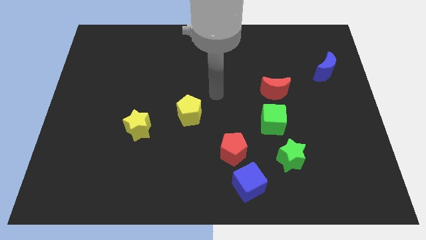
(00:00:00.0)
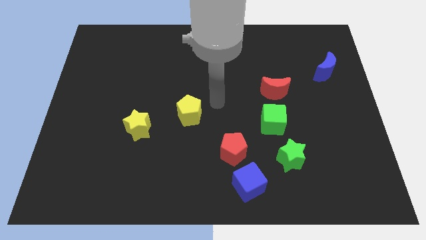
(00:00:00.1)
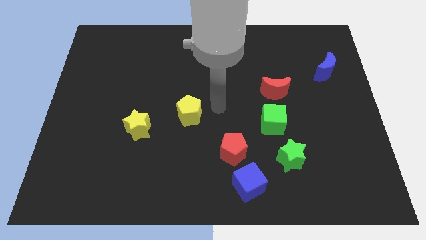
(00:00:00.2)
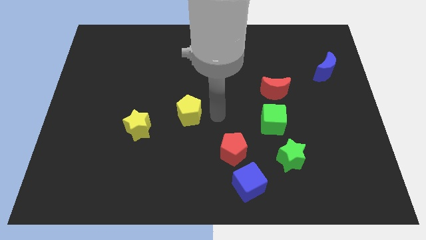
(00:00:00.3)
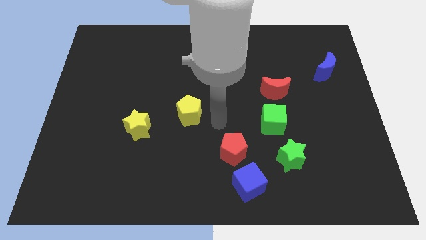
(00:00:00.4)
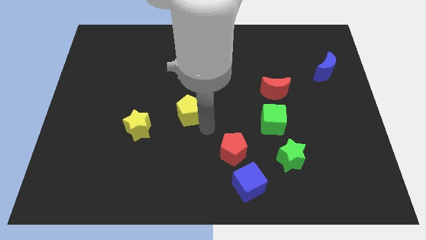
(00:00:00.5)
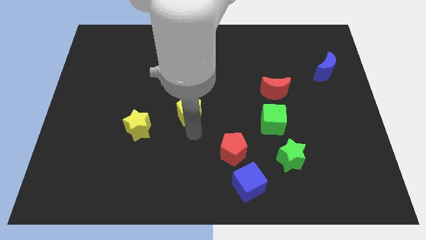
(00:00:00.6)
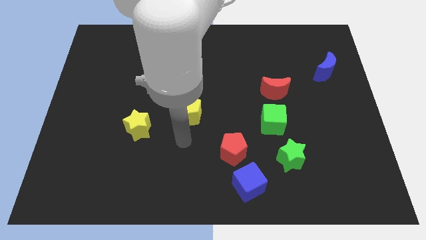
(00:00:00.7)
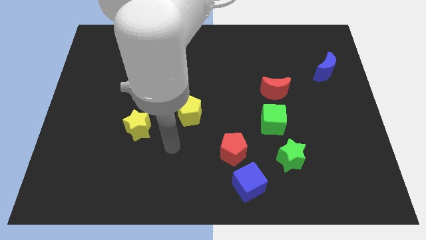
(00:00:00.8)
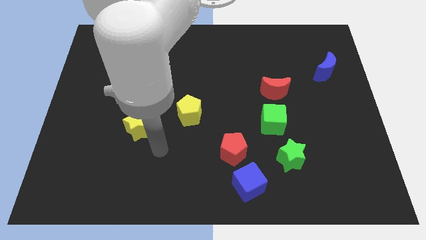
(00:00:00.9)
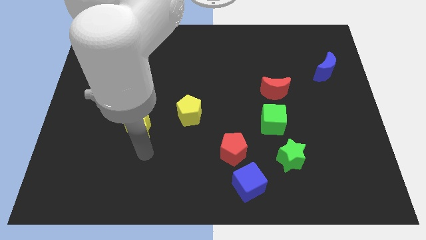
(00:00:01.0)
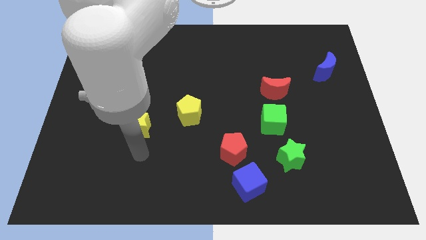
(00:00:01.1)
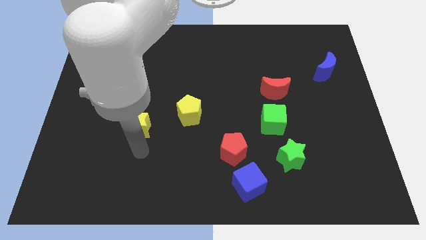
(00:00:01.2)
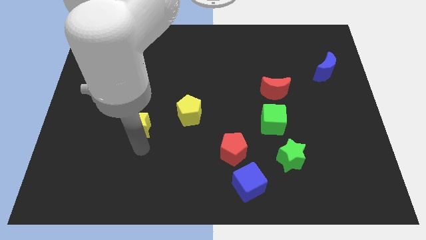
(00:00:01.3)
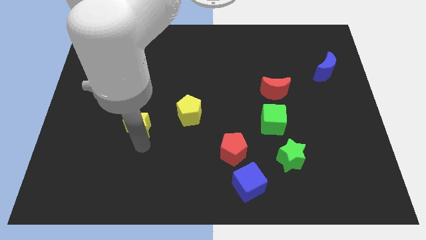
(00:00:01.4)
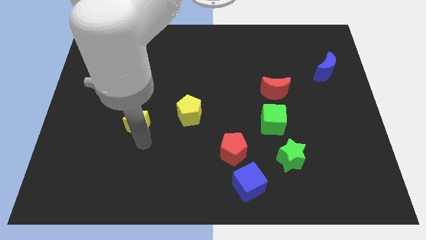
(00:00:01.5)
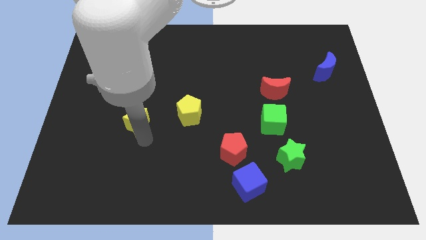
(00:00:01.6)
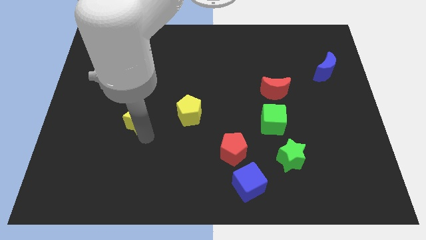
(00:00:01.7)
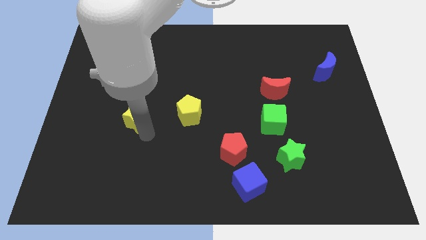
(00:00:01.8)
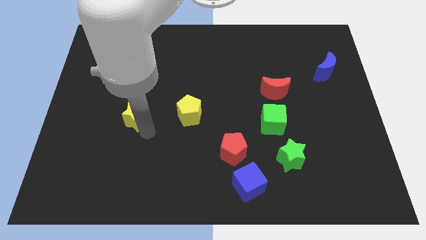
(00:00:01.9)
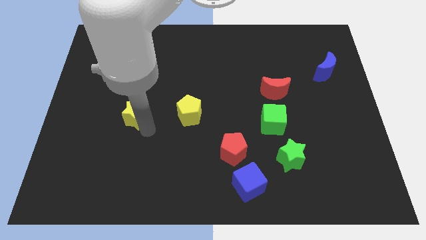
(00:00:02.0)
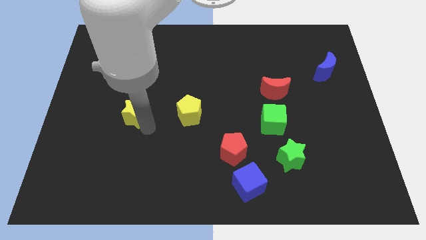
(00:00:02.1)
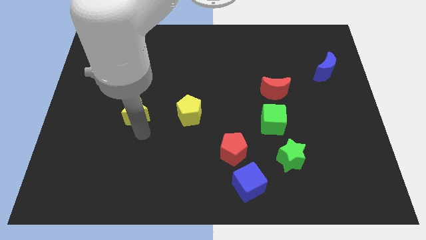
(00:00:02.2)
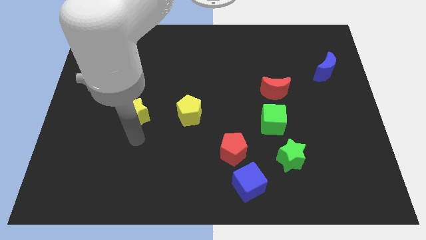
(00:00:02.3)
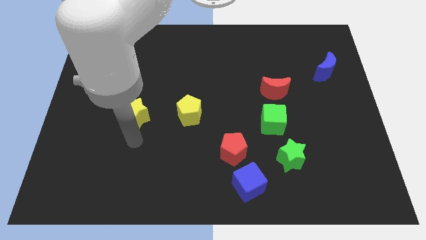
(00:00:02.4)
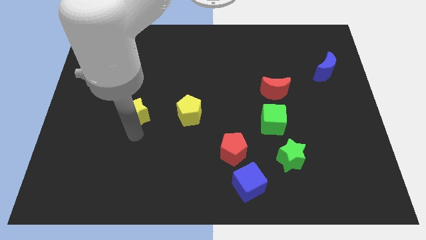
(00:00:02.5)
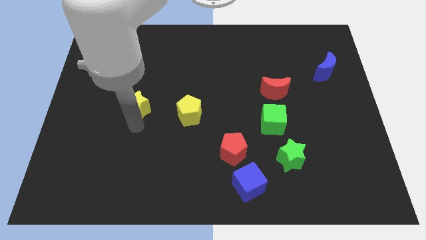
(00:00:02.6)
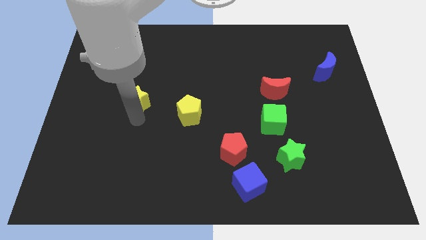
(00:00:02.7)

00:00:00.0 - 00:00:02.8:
slide the yellow star a little bit upwards

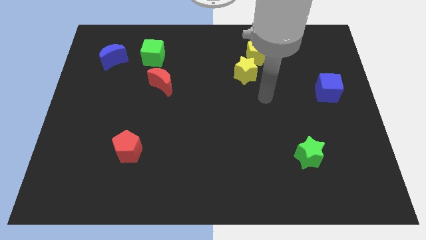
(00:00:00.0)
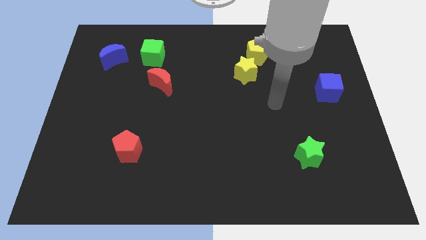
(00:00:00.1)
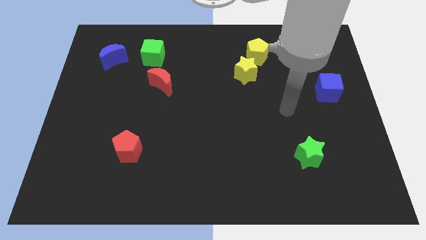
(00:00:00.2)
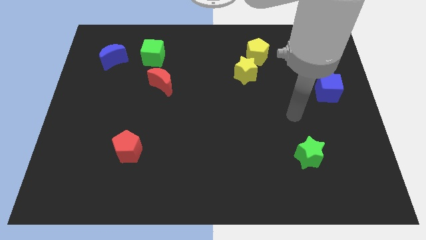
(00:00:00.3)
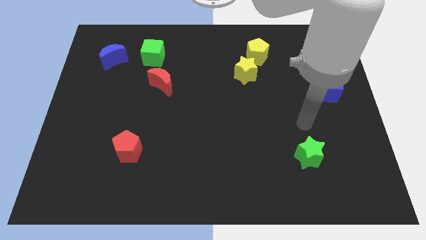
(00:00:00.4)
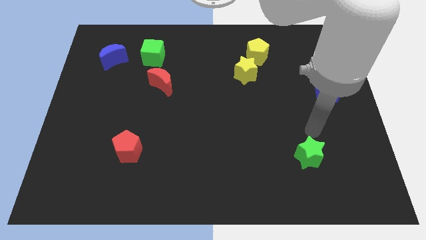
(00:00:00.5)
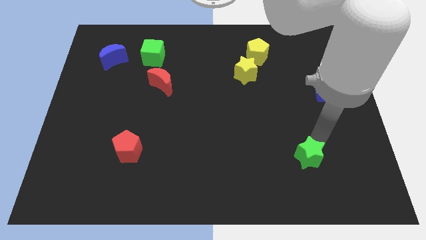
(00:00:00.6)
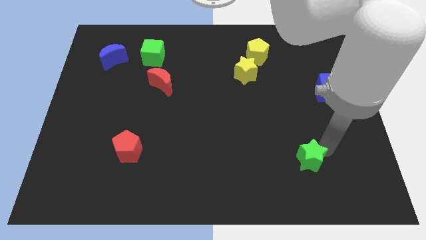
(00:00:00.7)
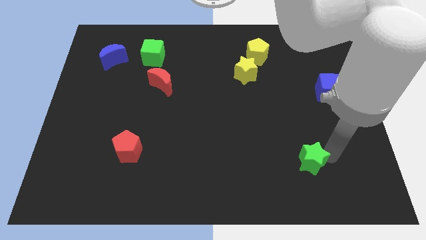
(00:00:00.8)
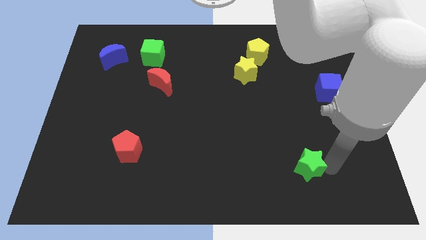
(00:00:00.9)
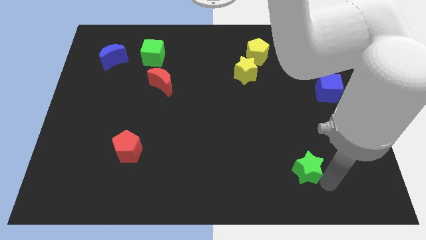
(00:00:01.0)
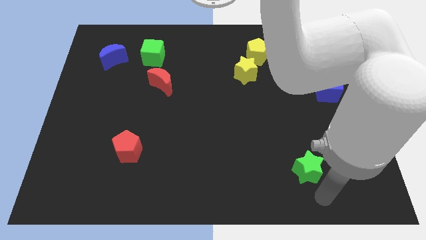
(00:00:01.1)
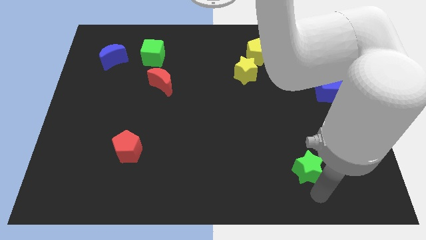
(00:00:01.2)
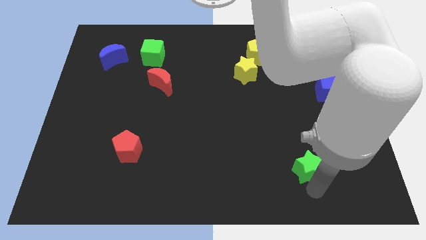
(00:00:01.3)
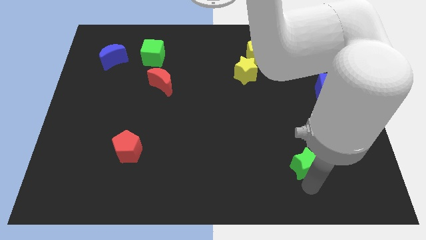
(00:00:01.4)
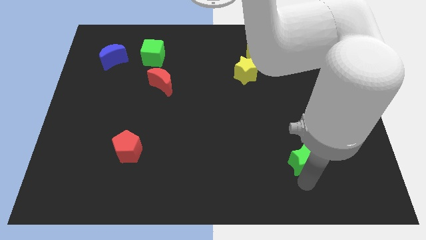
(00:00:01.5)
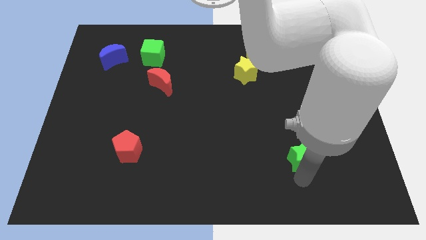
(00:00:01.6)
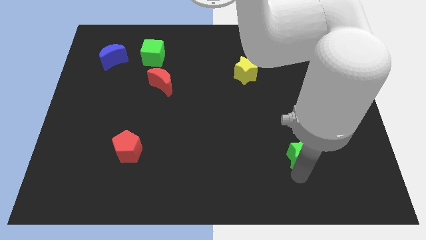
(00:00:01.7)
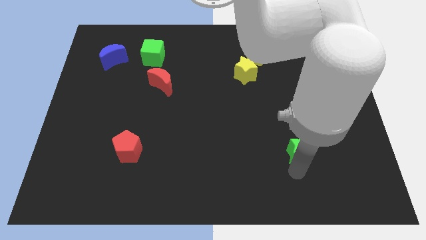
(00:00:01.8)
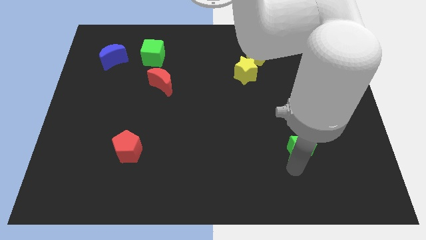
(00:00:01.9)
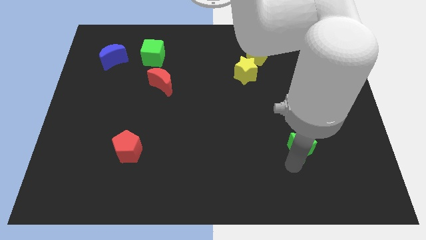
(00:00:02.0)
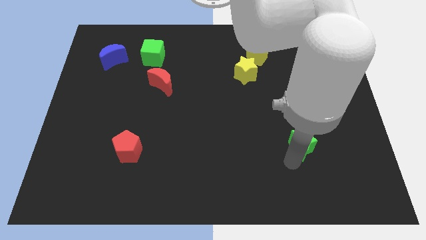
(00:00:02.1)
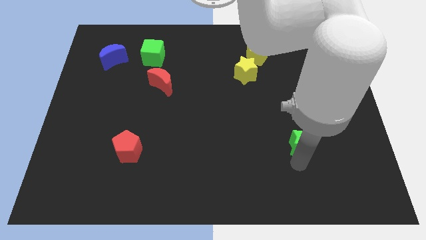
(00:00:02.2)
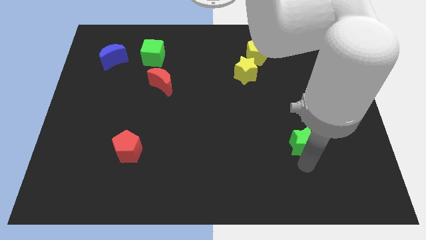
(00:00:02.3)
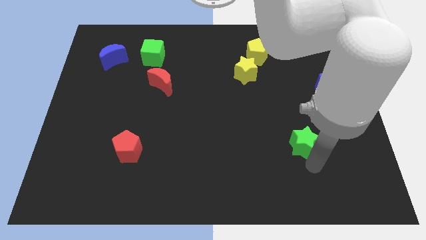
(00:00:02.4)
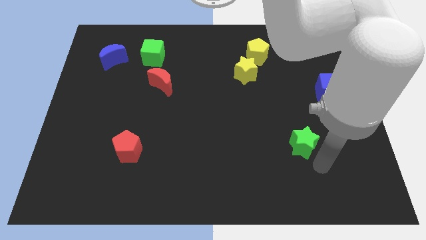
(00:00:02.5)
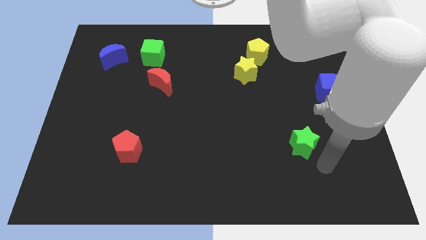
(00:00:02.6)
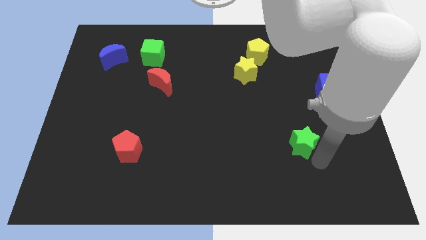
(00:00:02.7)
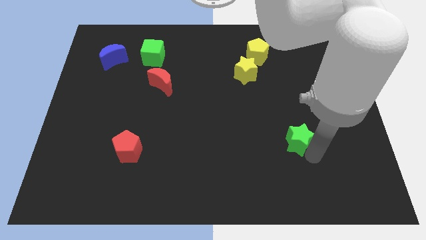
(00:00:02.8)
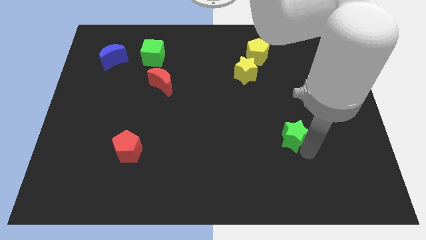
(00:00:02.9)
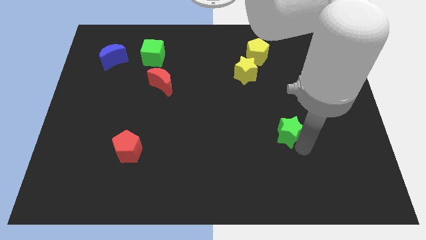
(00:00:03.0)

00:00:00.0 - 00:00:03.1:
slightly move the green star upwards and then left

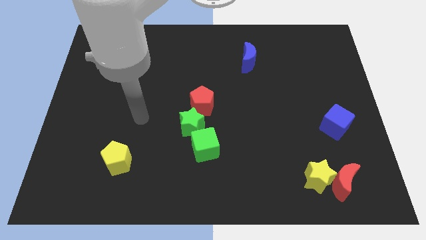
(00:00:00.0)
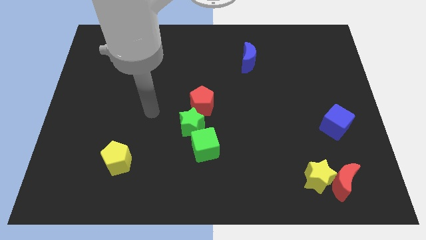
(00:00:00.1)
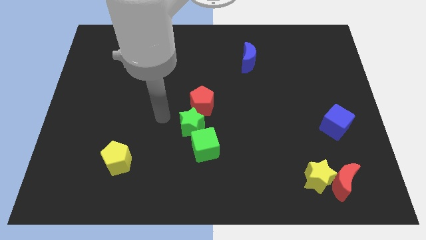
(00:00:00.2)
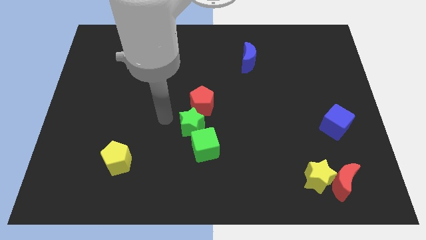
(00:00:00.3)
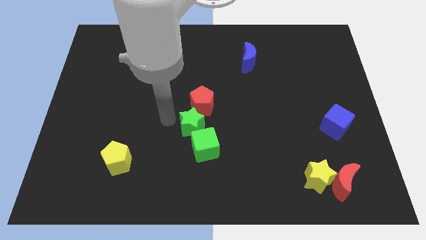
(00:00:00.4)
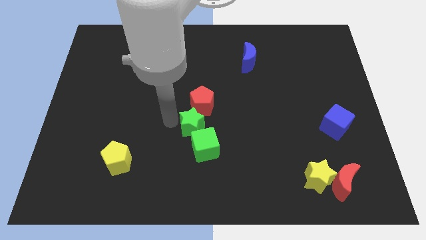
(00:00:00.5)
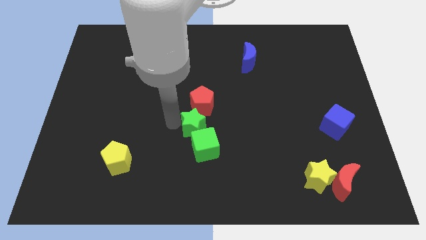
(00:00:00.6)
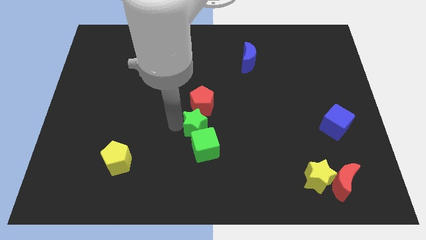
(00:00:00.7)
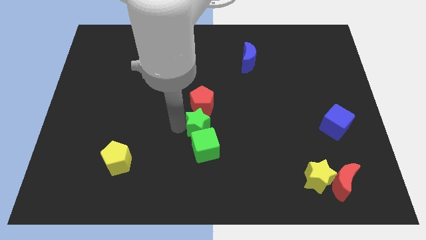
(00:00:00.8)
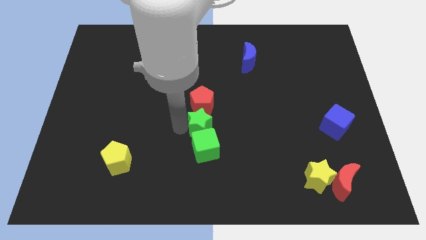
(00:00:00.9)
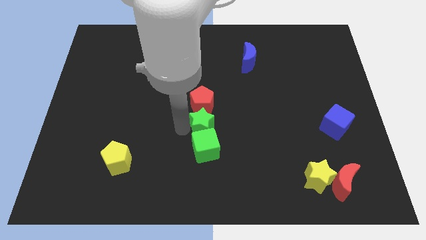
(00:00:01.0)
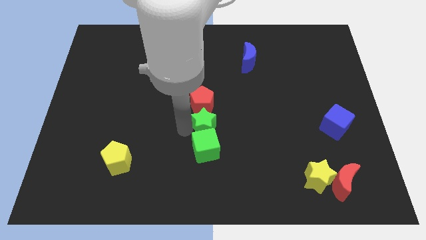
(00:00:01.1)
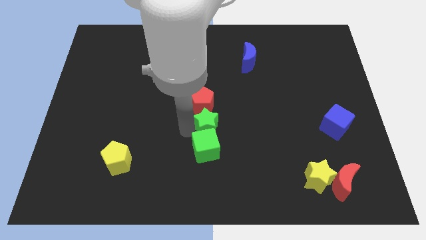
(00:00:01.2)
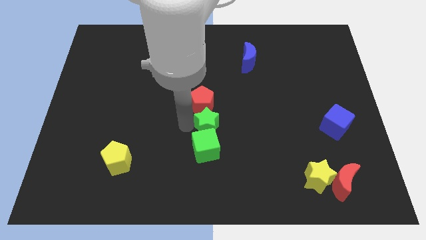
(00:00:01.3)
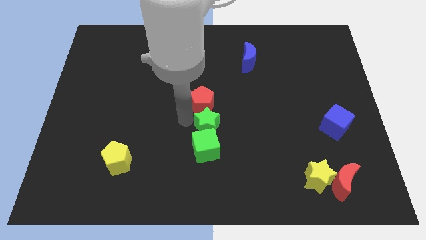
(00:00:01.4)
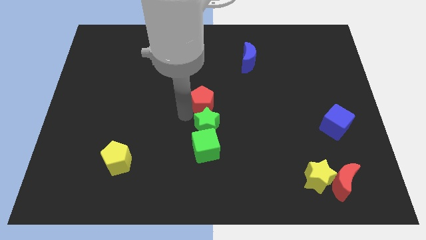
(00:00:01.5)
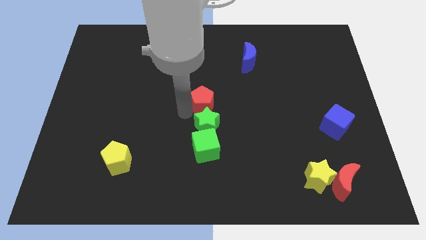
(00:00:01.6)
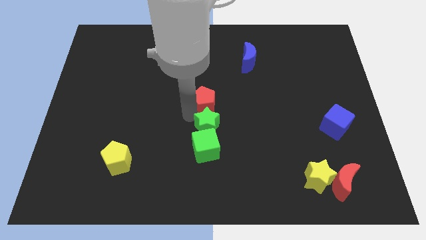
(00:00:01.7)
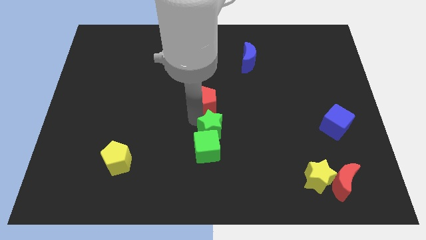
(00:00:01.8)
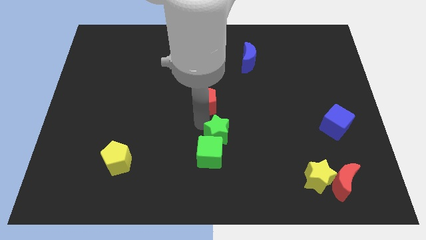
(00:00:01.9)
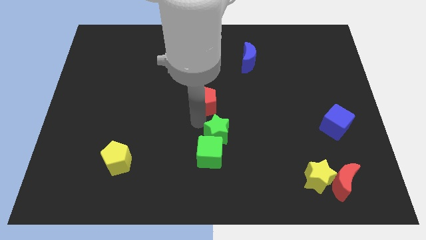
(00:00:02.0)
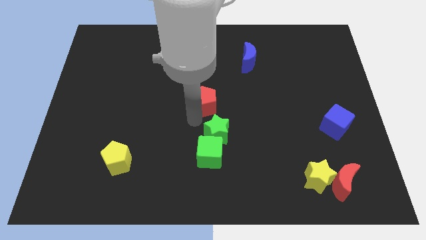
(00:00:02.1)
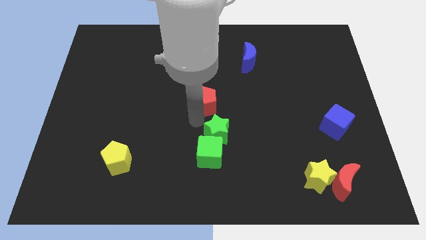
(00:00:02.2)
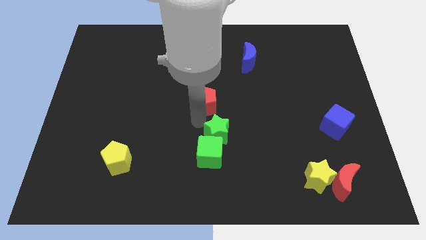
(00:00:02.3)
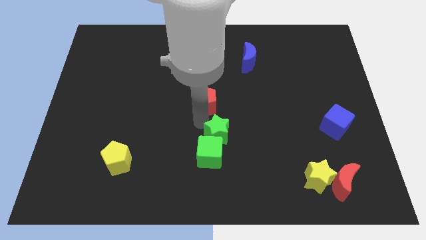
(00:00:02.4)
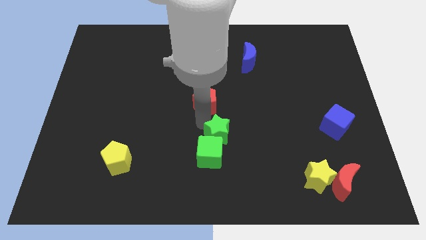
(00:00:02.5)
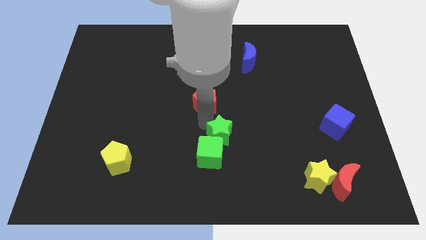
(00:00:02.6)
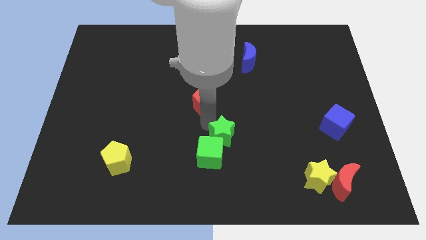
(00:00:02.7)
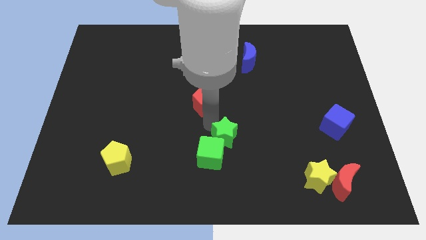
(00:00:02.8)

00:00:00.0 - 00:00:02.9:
slightly slide the green star down and to the right diagonally
